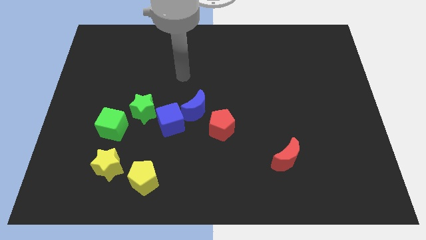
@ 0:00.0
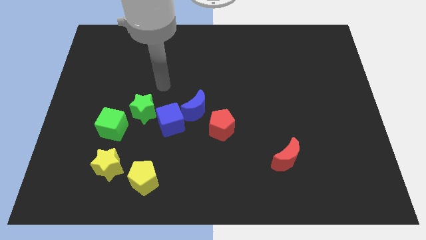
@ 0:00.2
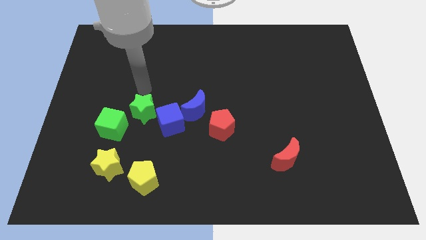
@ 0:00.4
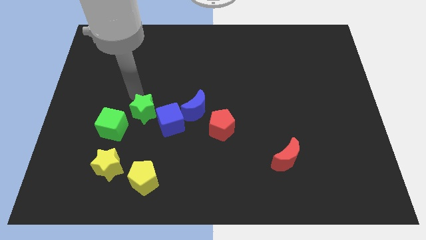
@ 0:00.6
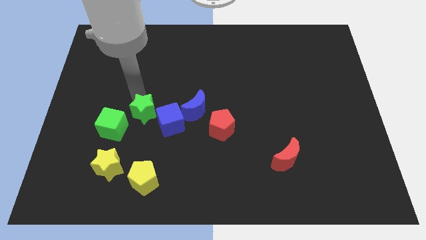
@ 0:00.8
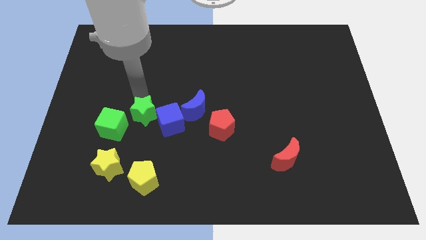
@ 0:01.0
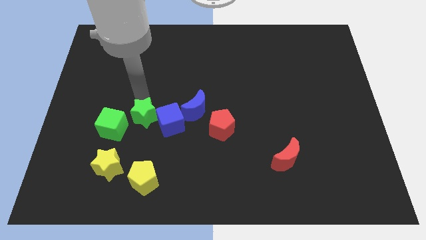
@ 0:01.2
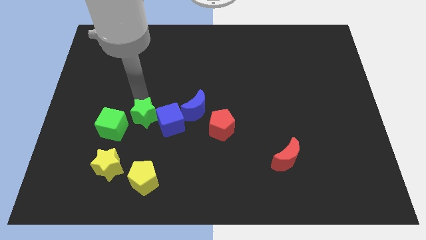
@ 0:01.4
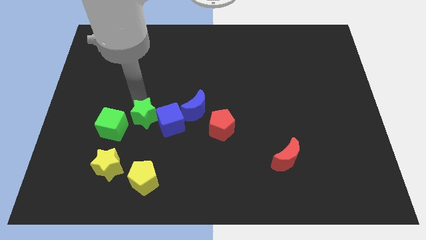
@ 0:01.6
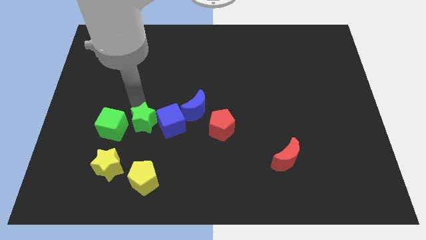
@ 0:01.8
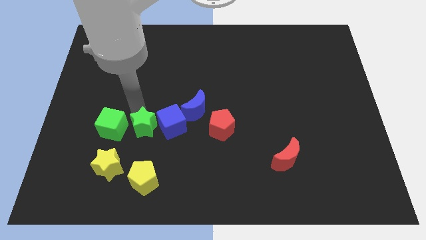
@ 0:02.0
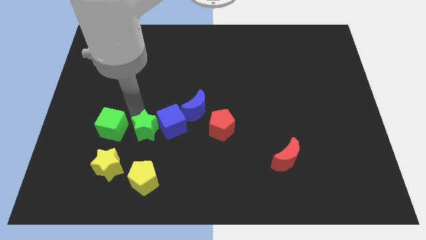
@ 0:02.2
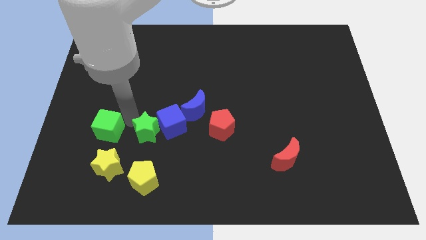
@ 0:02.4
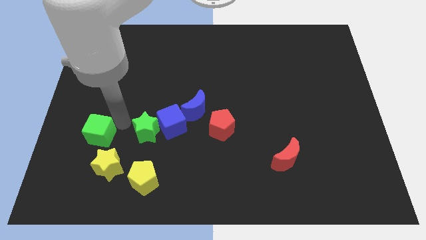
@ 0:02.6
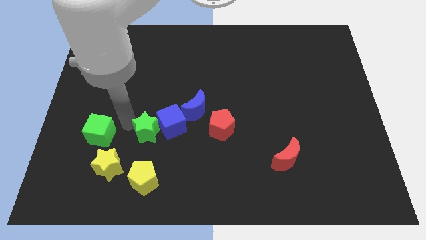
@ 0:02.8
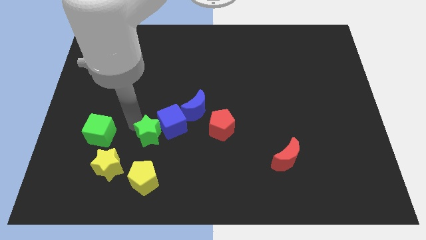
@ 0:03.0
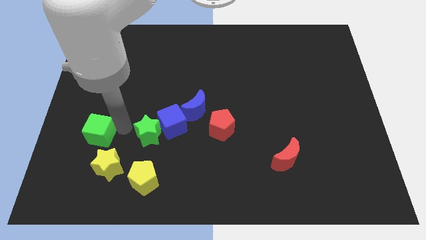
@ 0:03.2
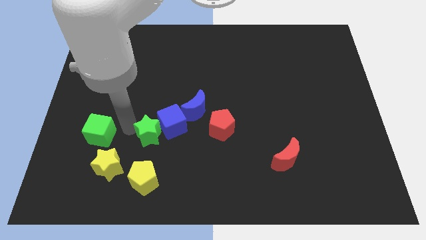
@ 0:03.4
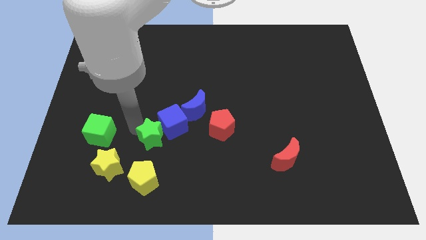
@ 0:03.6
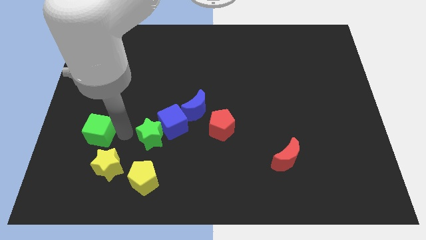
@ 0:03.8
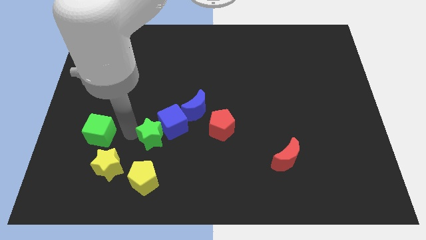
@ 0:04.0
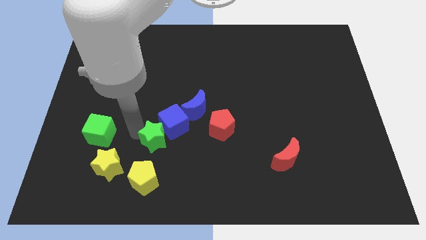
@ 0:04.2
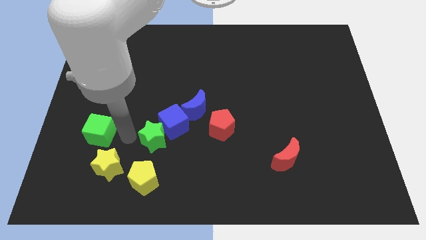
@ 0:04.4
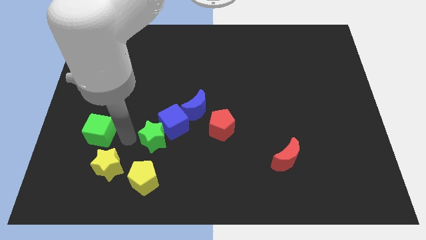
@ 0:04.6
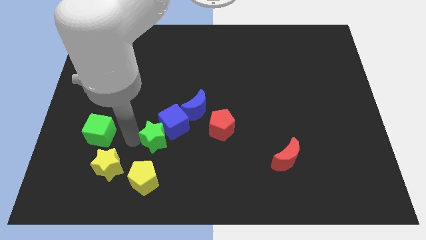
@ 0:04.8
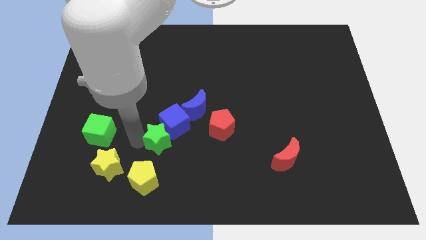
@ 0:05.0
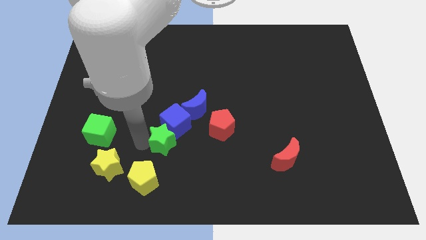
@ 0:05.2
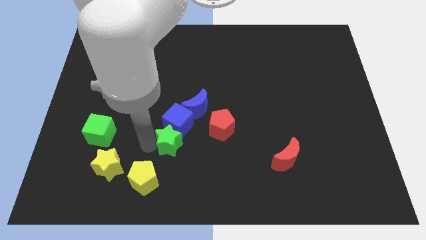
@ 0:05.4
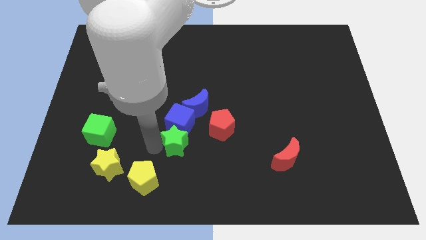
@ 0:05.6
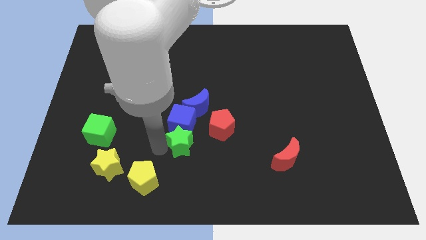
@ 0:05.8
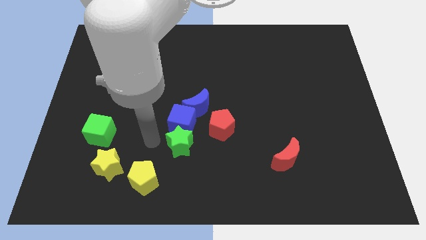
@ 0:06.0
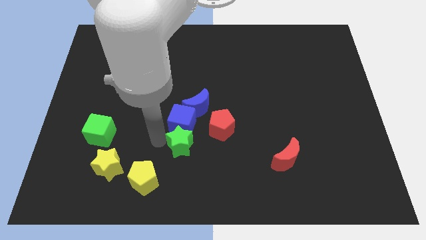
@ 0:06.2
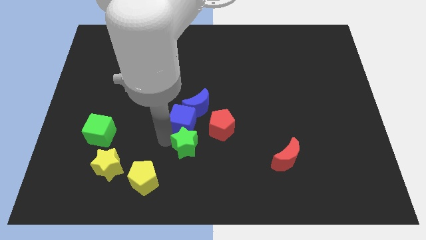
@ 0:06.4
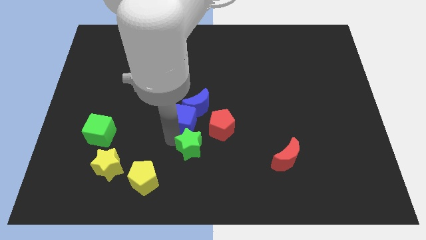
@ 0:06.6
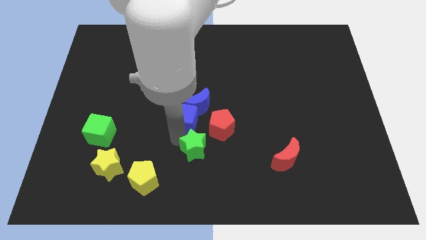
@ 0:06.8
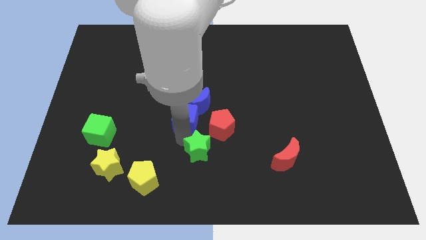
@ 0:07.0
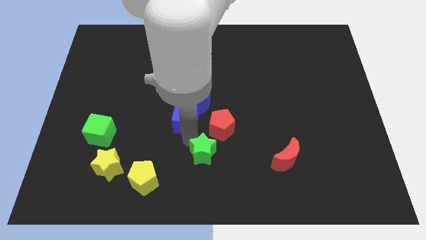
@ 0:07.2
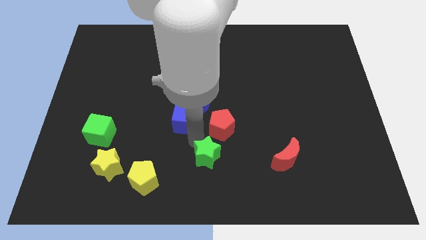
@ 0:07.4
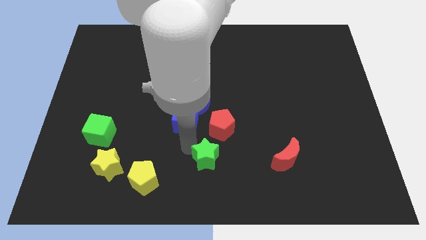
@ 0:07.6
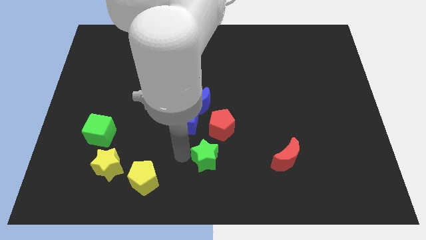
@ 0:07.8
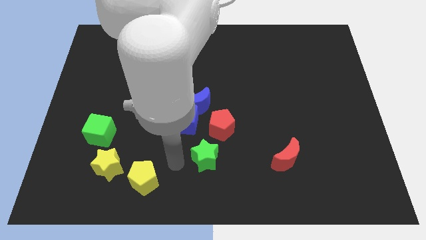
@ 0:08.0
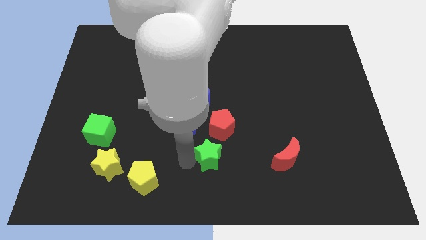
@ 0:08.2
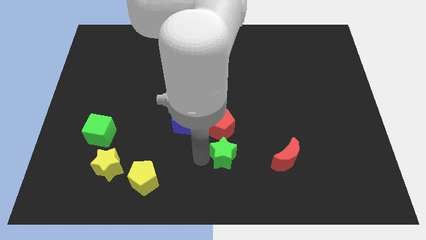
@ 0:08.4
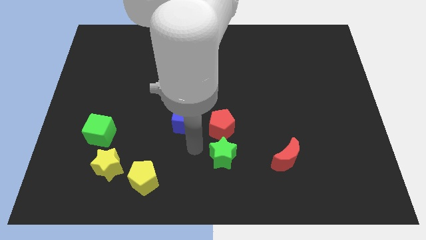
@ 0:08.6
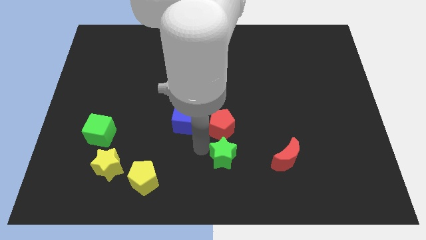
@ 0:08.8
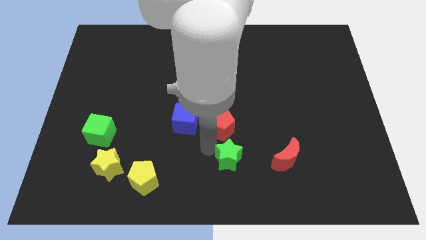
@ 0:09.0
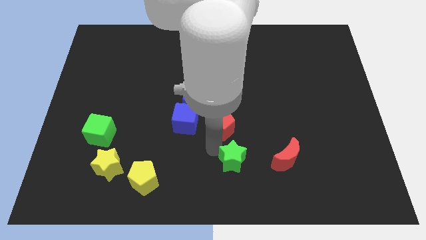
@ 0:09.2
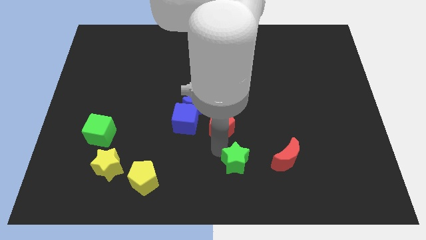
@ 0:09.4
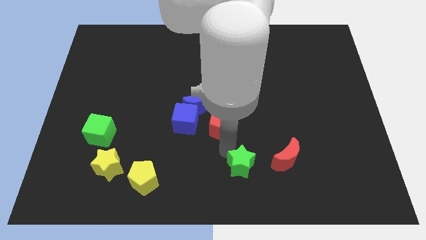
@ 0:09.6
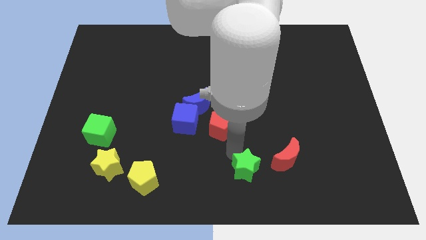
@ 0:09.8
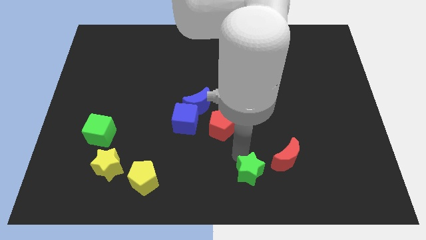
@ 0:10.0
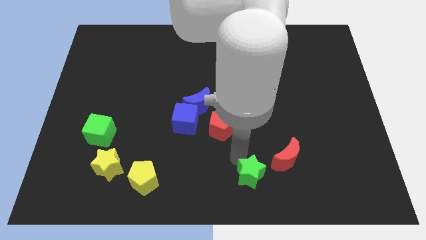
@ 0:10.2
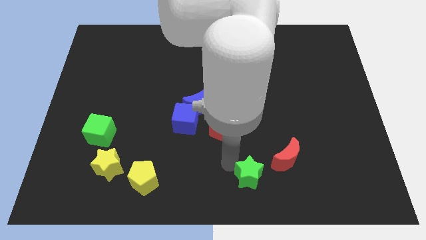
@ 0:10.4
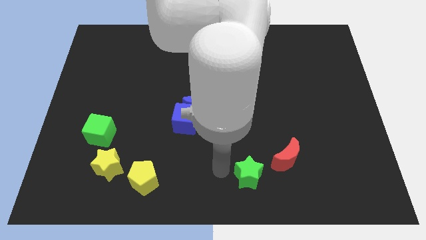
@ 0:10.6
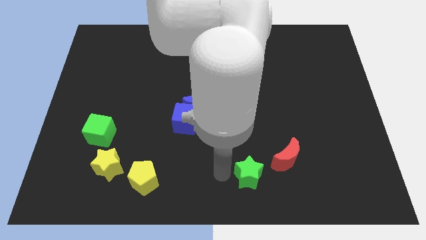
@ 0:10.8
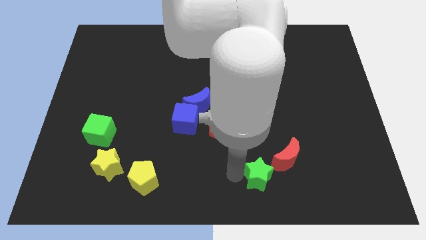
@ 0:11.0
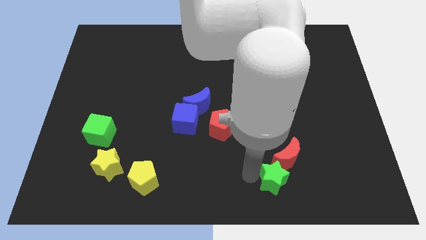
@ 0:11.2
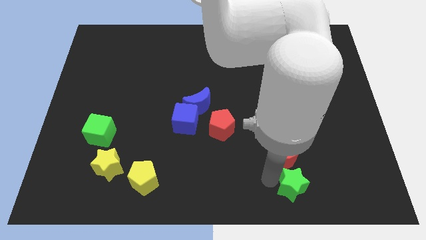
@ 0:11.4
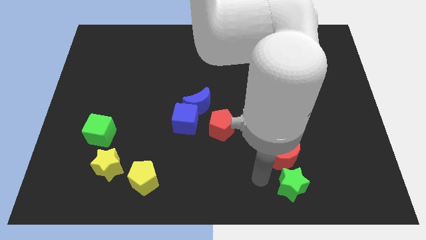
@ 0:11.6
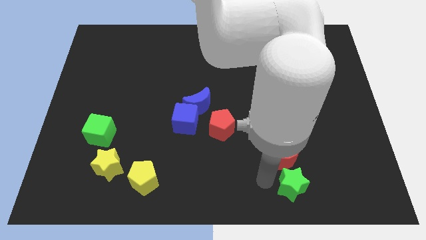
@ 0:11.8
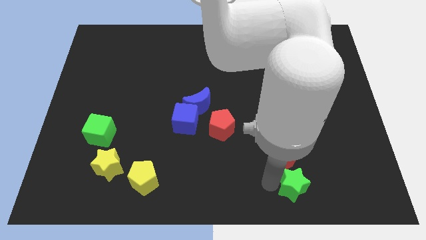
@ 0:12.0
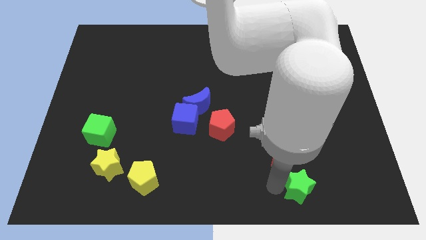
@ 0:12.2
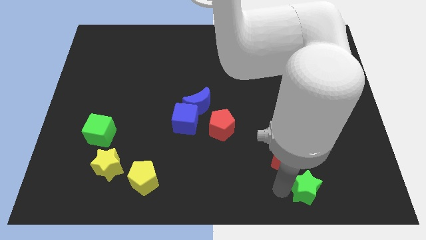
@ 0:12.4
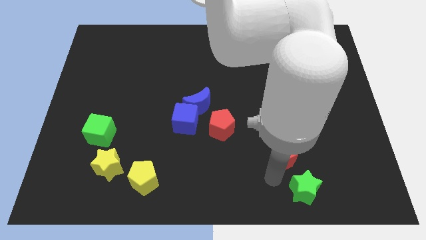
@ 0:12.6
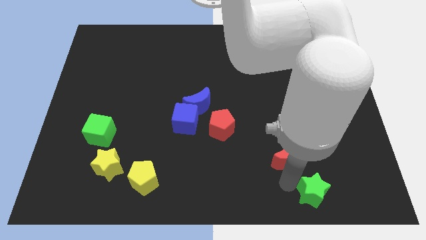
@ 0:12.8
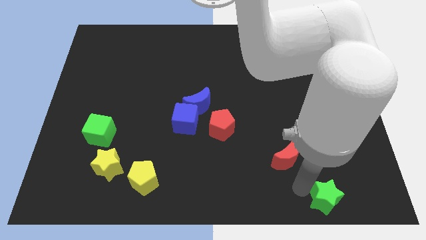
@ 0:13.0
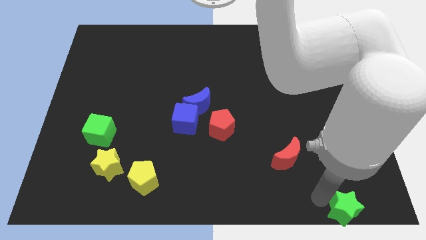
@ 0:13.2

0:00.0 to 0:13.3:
move the green star to the bottom right corner

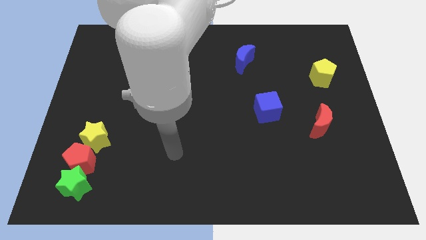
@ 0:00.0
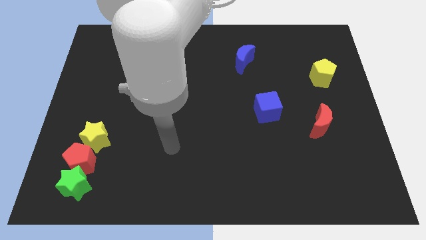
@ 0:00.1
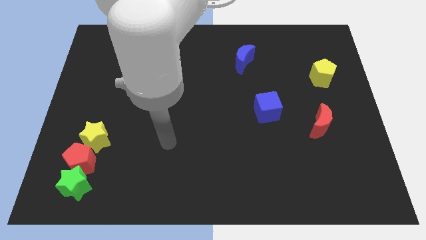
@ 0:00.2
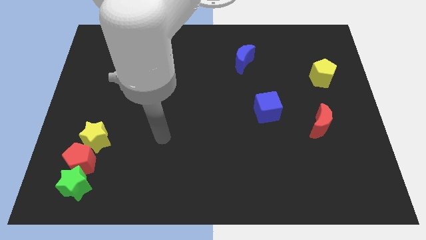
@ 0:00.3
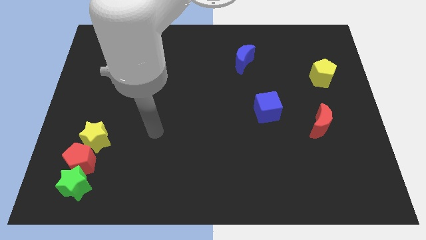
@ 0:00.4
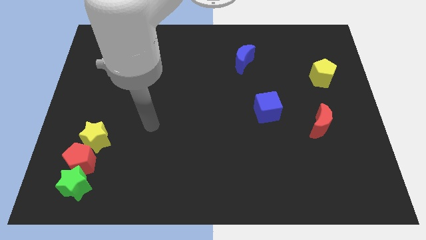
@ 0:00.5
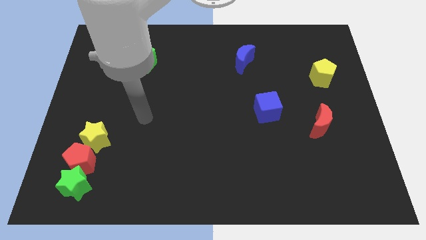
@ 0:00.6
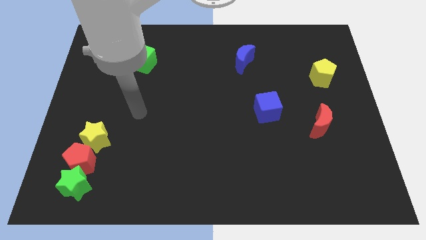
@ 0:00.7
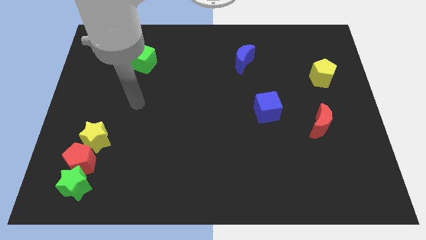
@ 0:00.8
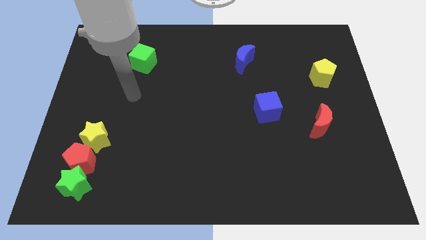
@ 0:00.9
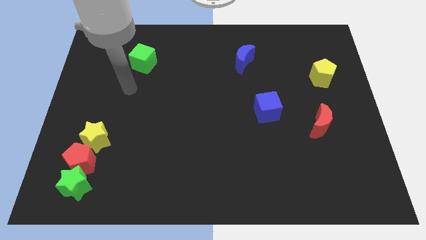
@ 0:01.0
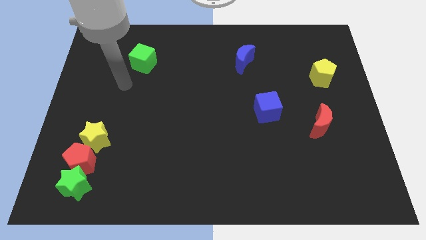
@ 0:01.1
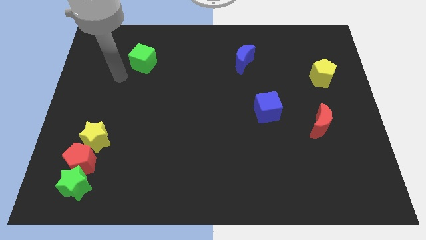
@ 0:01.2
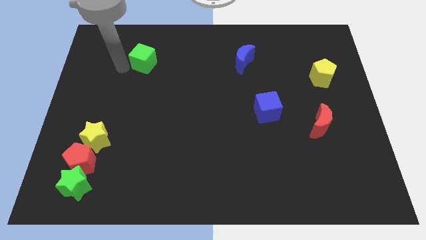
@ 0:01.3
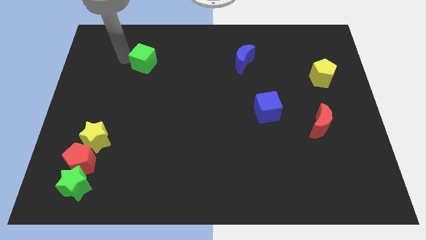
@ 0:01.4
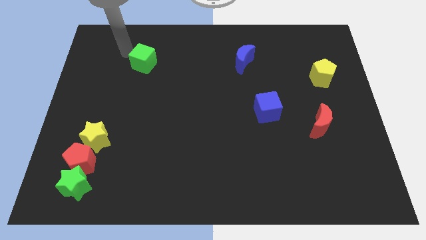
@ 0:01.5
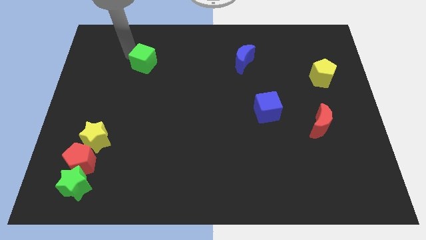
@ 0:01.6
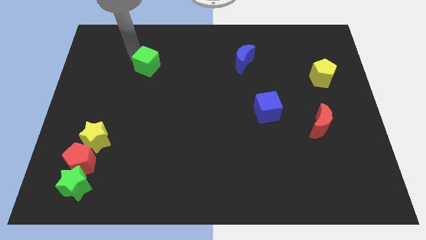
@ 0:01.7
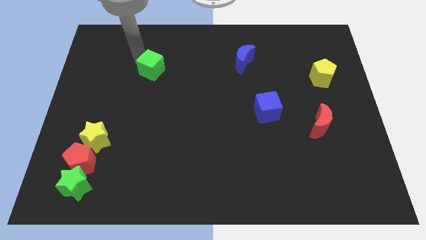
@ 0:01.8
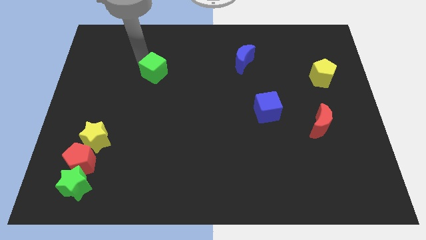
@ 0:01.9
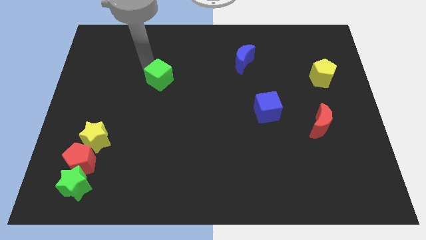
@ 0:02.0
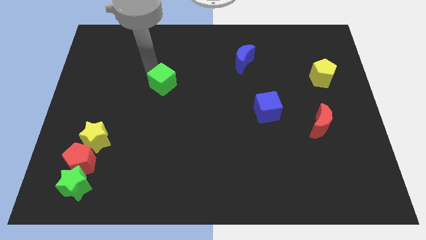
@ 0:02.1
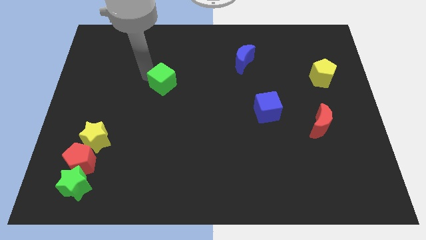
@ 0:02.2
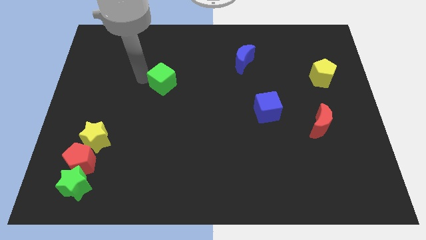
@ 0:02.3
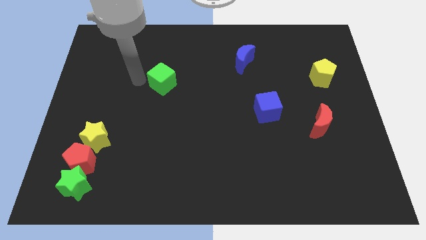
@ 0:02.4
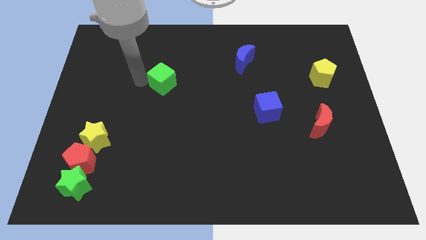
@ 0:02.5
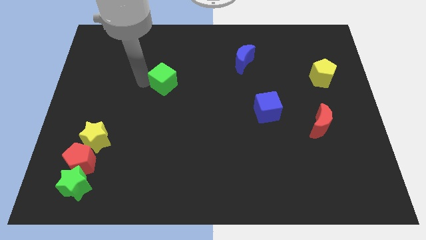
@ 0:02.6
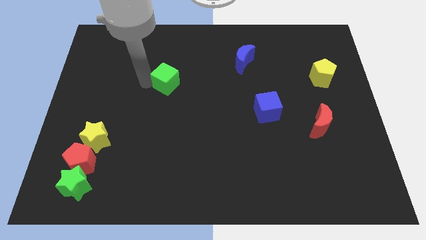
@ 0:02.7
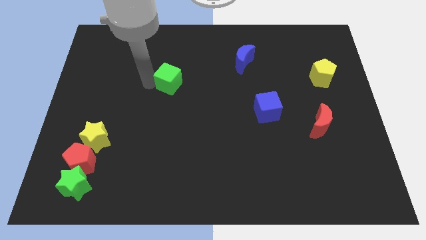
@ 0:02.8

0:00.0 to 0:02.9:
put the green cube to the center
